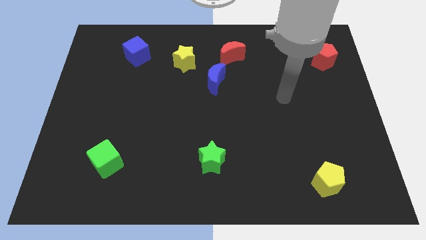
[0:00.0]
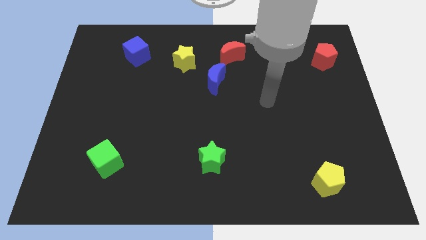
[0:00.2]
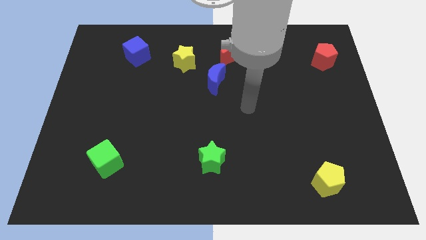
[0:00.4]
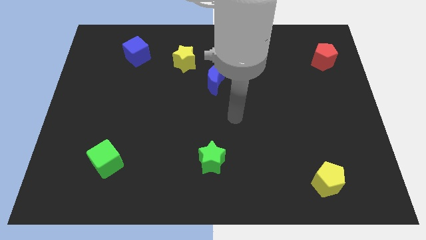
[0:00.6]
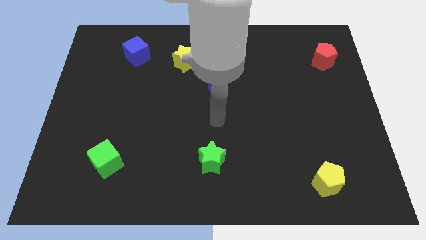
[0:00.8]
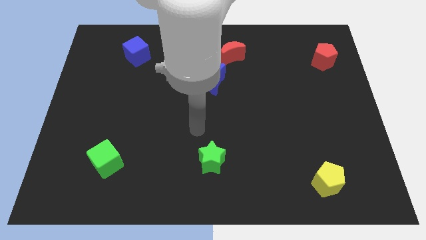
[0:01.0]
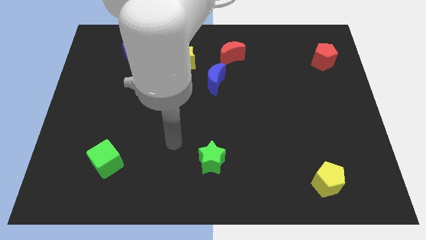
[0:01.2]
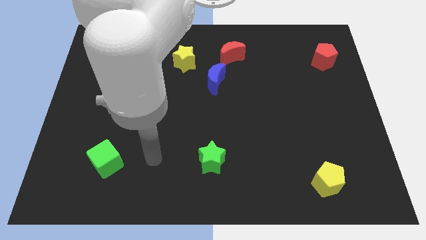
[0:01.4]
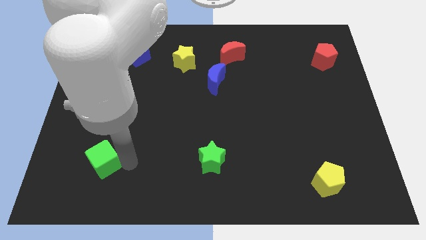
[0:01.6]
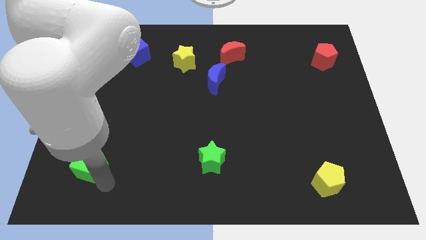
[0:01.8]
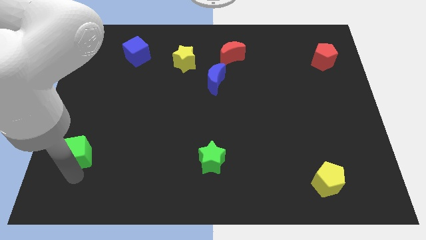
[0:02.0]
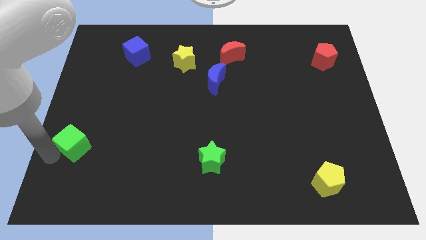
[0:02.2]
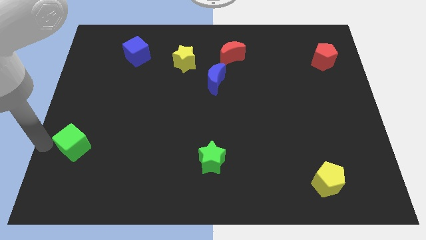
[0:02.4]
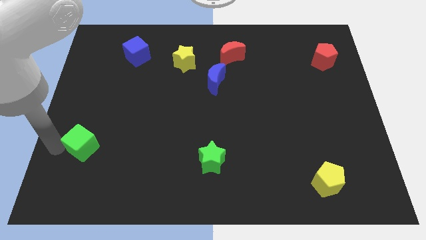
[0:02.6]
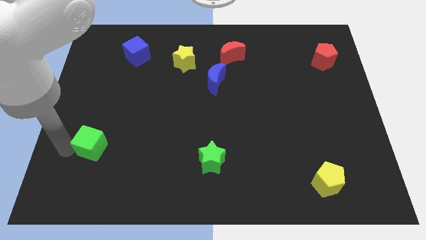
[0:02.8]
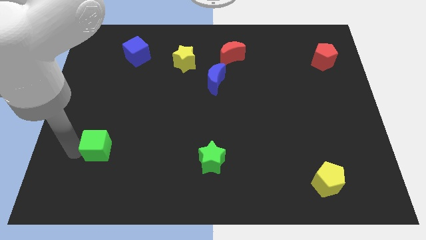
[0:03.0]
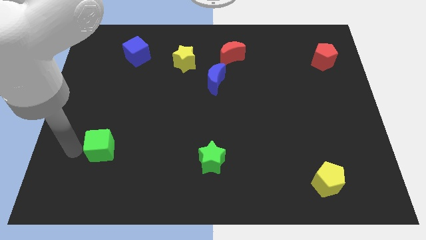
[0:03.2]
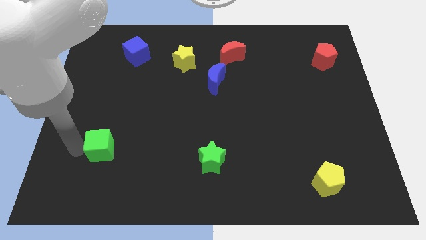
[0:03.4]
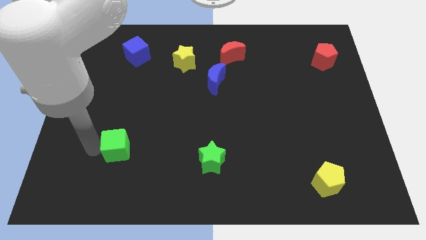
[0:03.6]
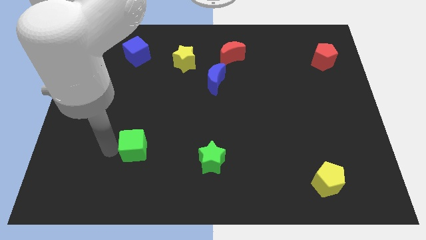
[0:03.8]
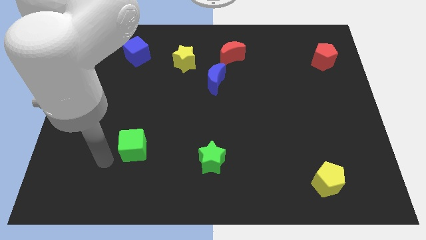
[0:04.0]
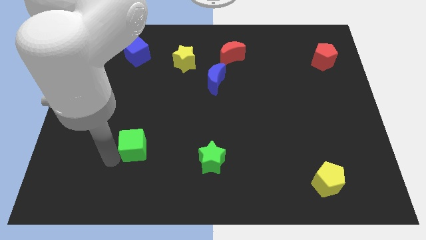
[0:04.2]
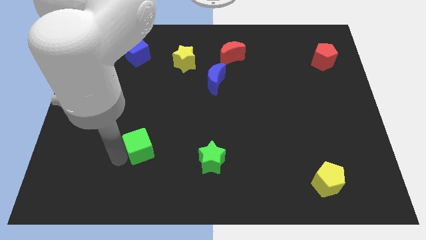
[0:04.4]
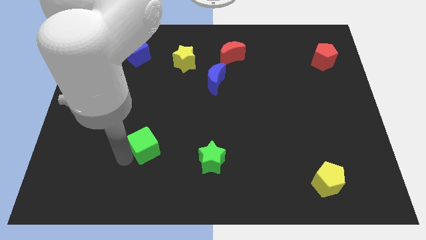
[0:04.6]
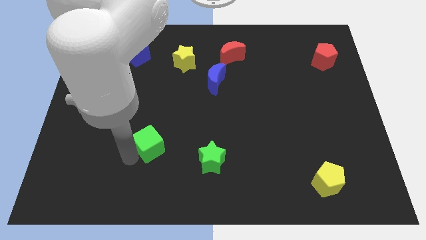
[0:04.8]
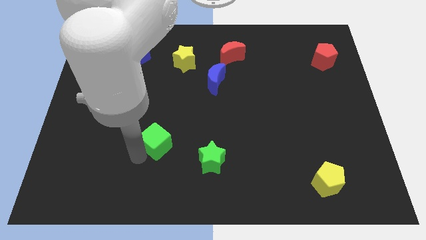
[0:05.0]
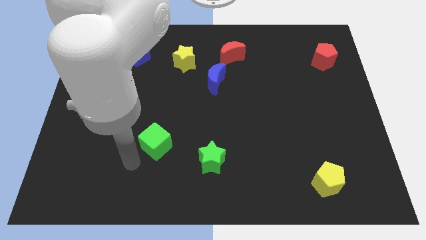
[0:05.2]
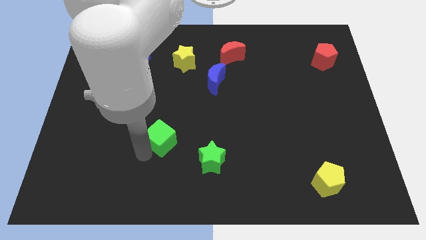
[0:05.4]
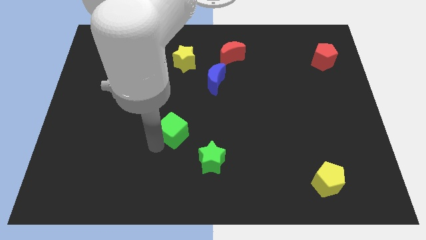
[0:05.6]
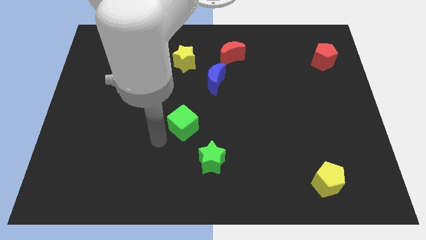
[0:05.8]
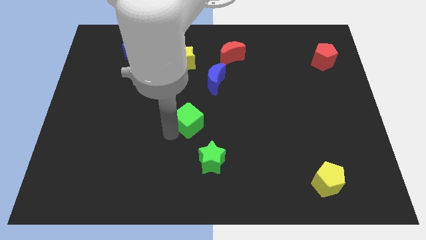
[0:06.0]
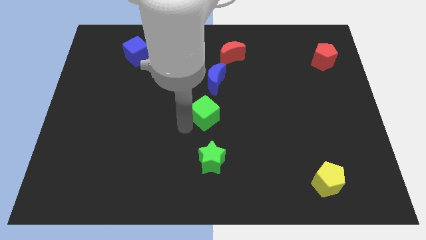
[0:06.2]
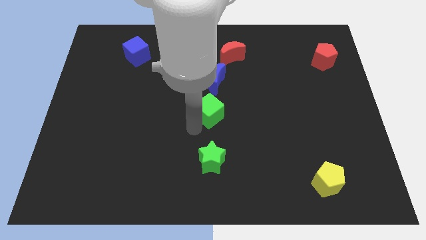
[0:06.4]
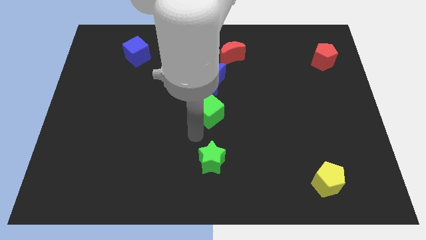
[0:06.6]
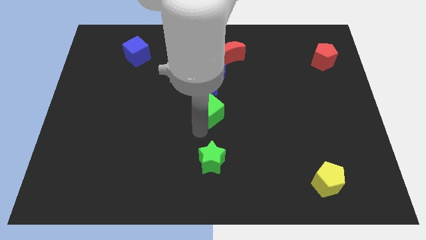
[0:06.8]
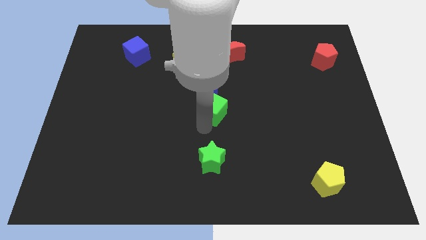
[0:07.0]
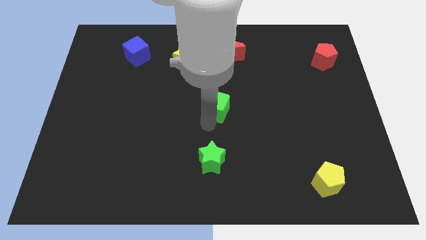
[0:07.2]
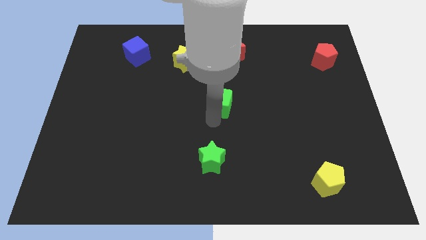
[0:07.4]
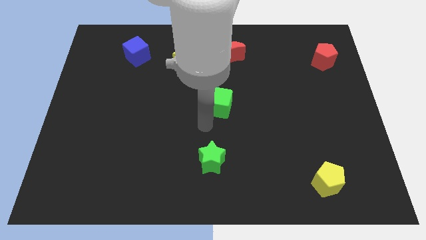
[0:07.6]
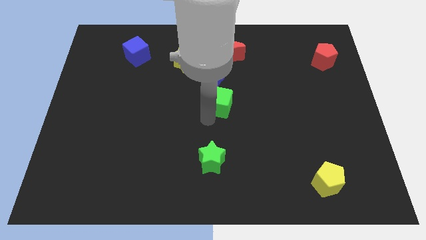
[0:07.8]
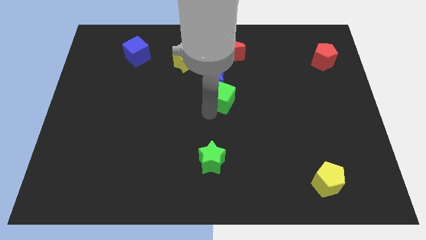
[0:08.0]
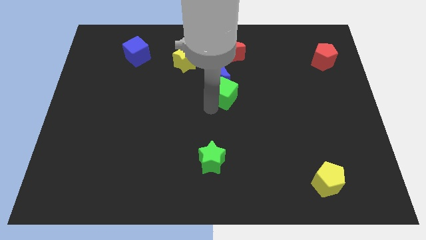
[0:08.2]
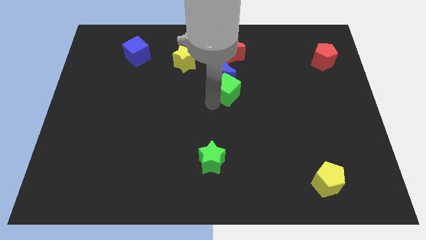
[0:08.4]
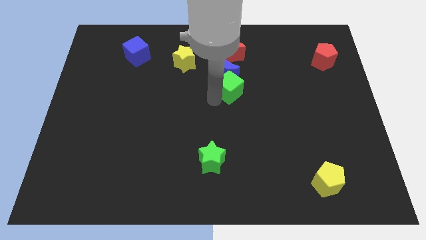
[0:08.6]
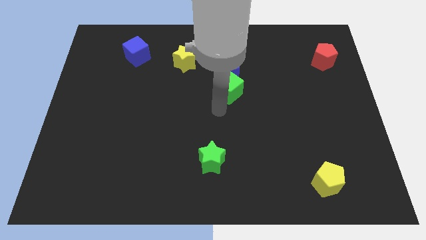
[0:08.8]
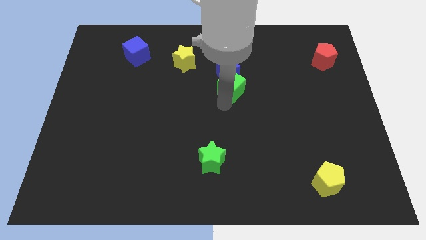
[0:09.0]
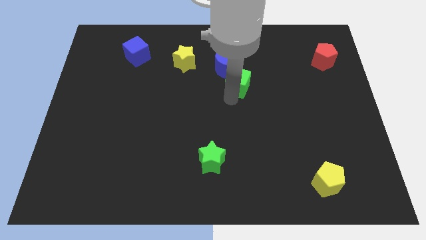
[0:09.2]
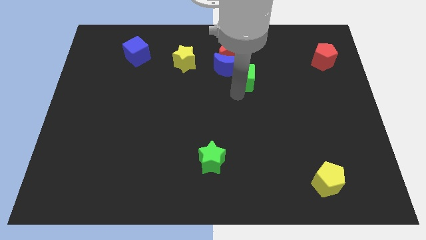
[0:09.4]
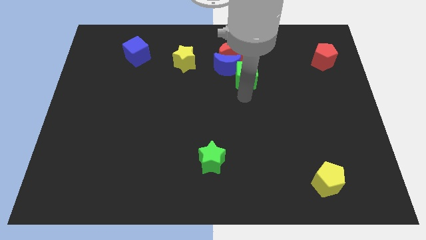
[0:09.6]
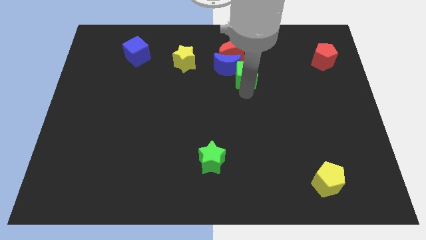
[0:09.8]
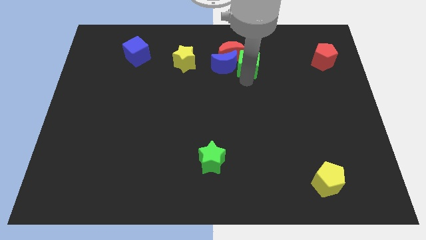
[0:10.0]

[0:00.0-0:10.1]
move the green cube diagonally up and to the right of the blue moon

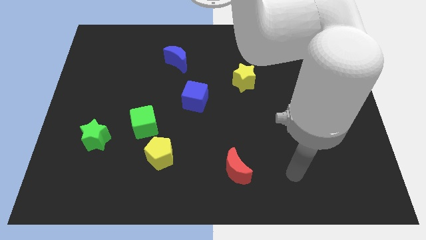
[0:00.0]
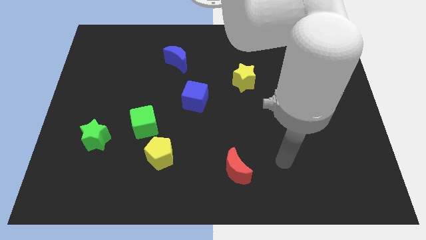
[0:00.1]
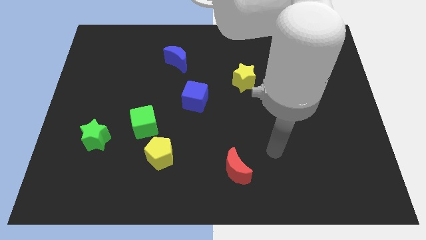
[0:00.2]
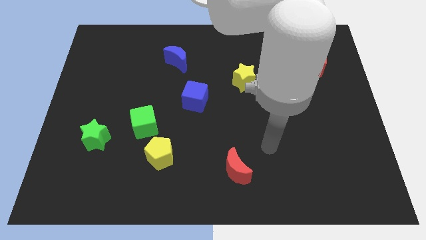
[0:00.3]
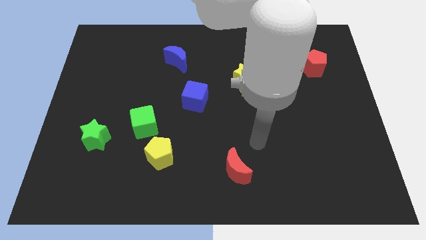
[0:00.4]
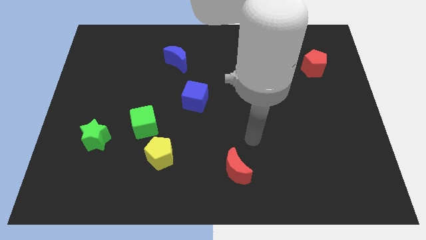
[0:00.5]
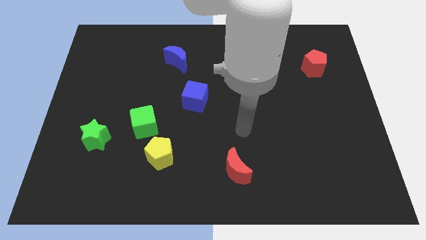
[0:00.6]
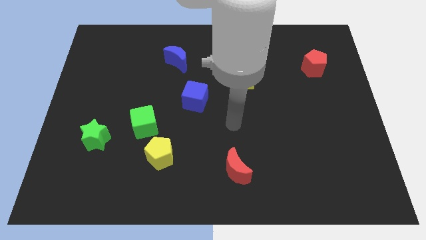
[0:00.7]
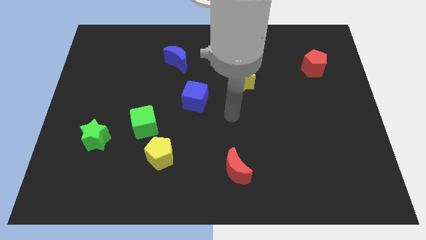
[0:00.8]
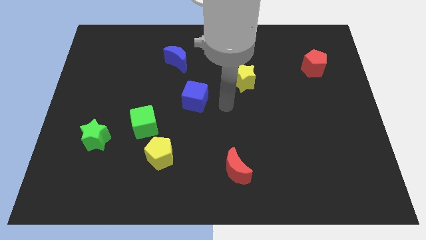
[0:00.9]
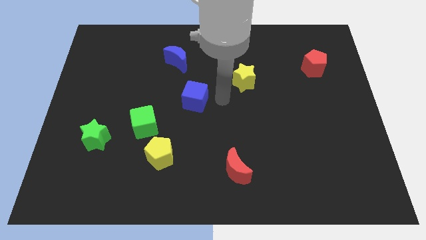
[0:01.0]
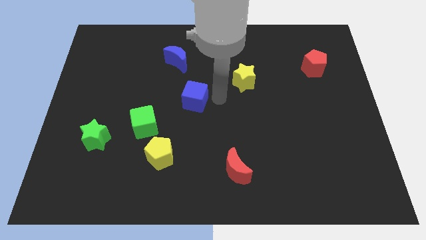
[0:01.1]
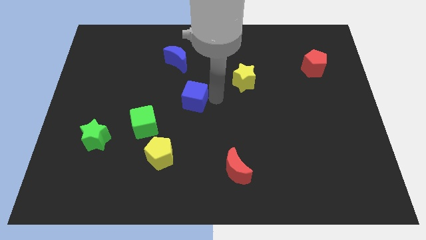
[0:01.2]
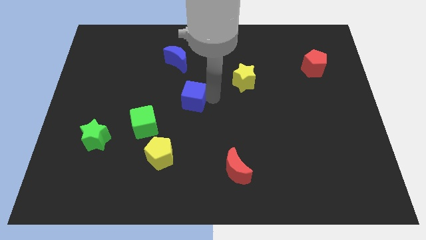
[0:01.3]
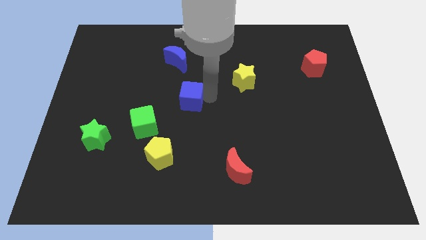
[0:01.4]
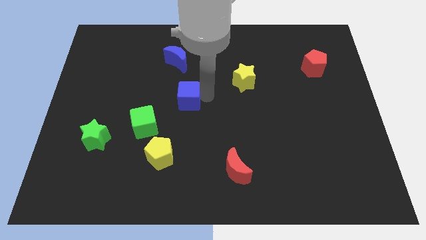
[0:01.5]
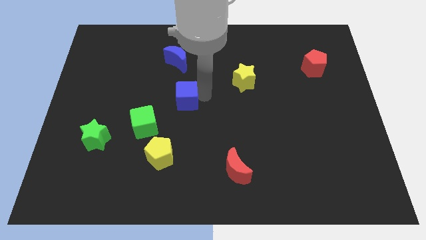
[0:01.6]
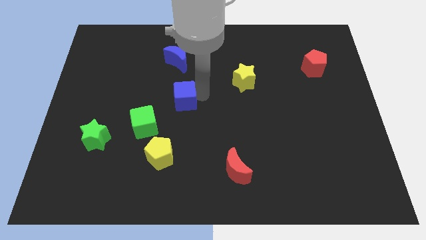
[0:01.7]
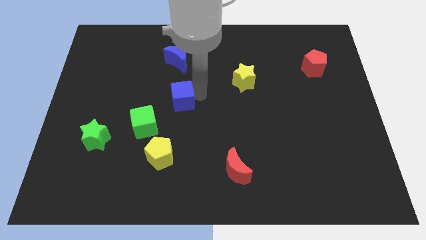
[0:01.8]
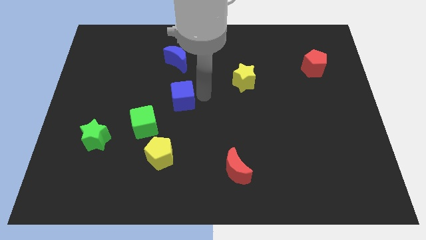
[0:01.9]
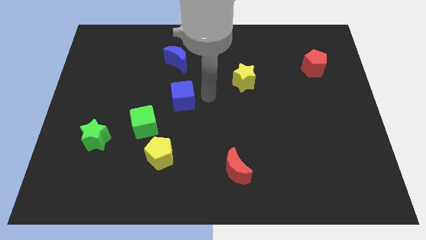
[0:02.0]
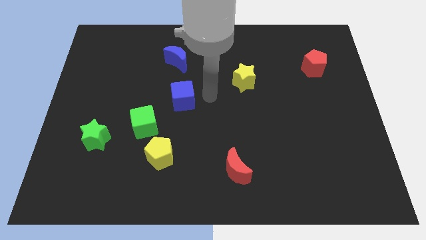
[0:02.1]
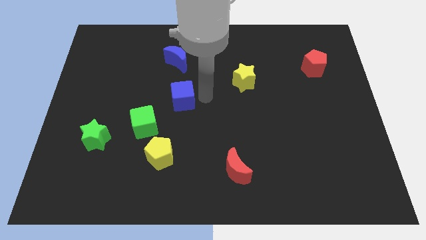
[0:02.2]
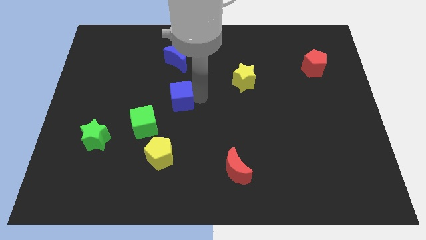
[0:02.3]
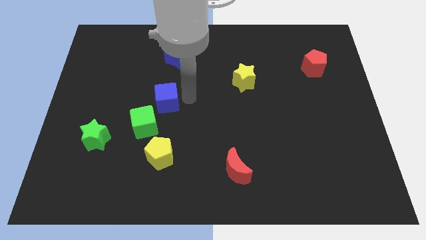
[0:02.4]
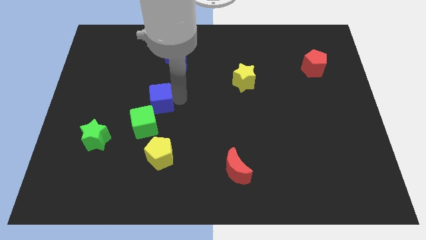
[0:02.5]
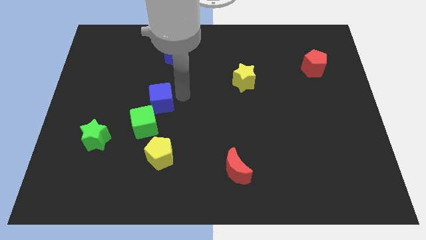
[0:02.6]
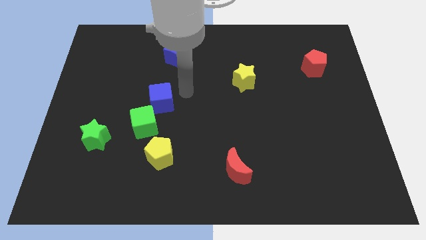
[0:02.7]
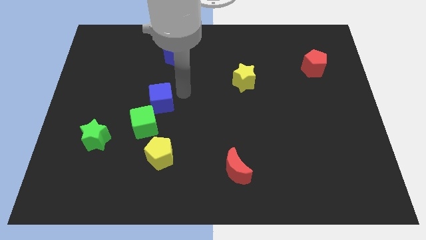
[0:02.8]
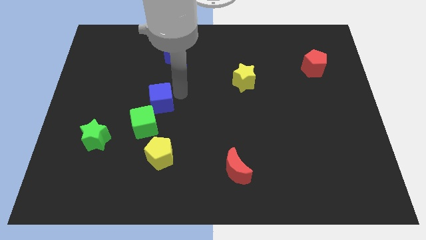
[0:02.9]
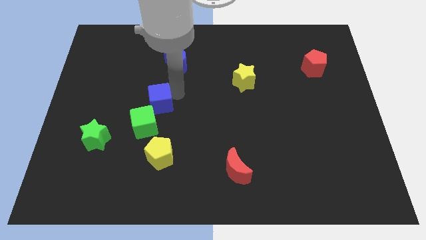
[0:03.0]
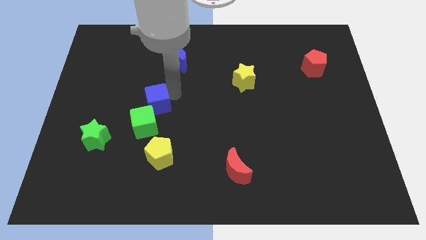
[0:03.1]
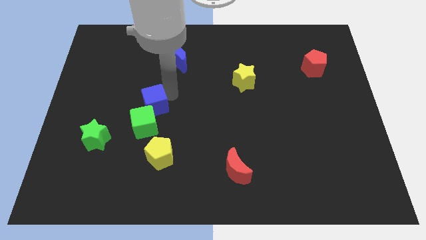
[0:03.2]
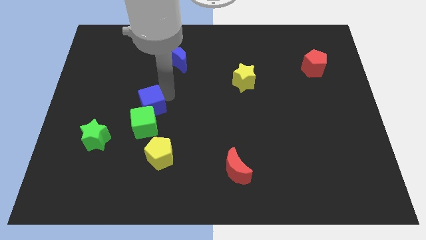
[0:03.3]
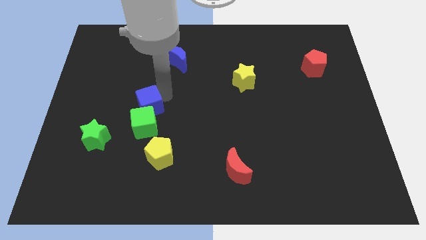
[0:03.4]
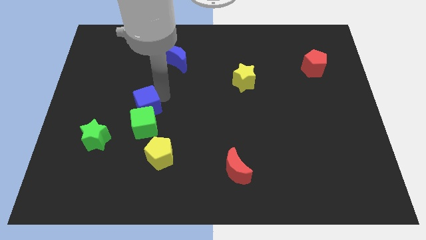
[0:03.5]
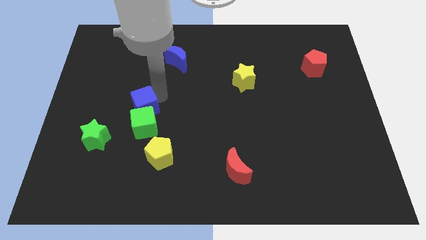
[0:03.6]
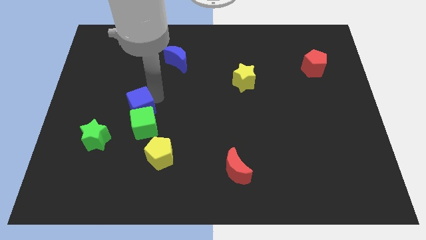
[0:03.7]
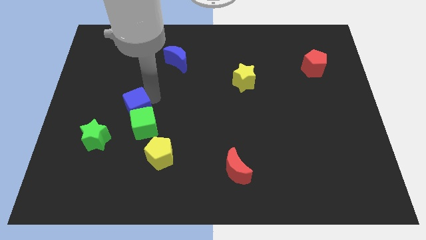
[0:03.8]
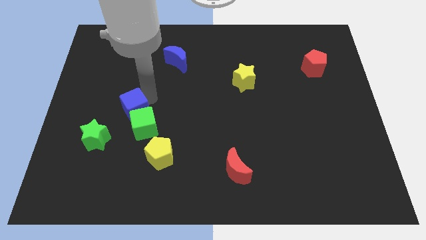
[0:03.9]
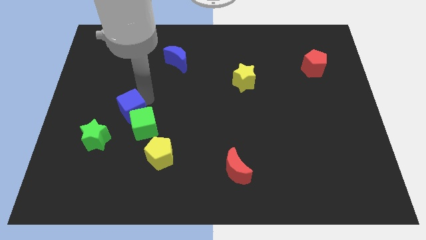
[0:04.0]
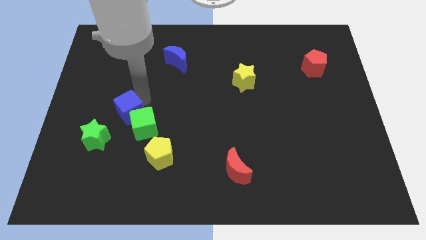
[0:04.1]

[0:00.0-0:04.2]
move the blue cube left of the green cube
